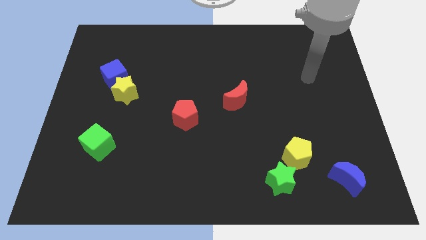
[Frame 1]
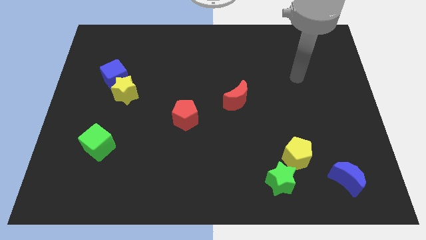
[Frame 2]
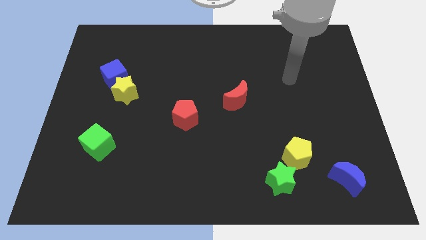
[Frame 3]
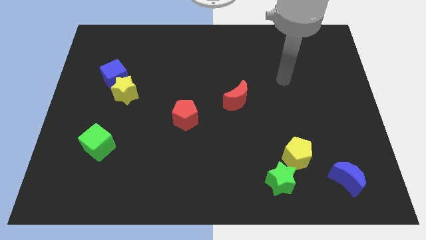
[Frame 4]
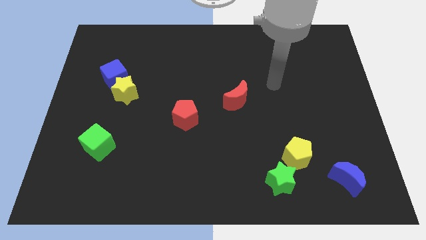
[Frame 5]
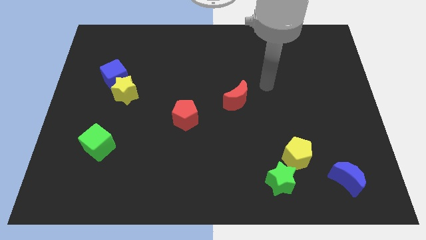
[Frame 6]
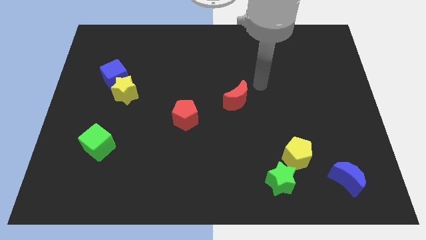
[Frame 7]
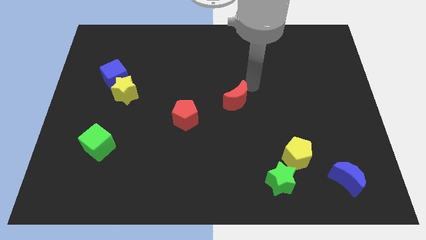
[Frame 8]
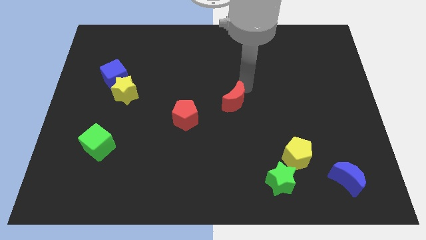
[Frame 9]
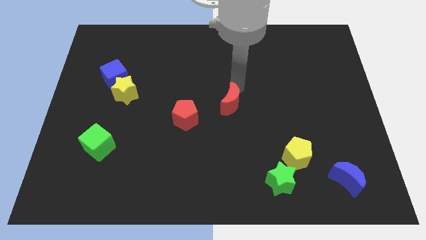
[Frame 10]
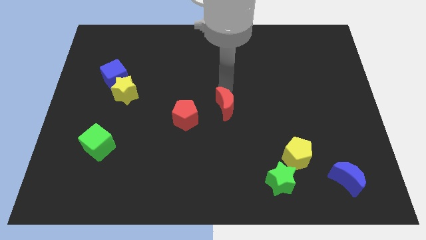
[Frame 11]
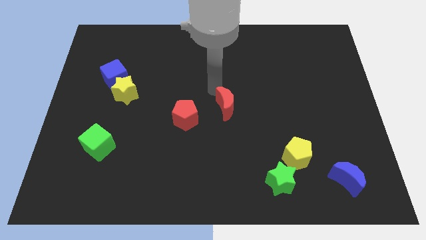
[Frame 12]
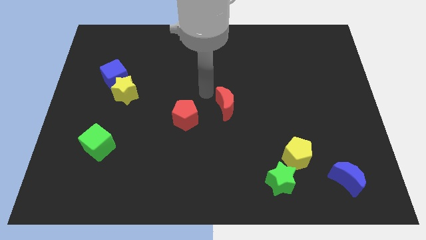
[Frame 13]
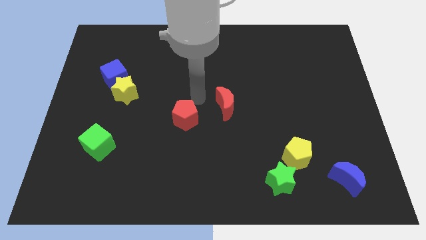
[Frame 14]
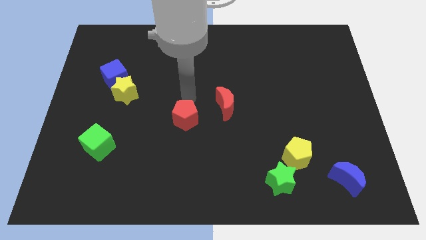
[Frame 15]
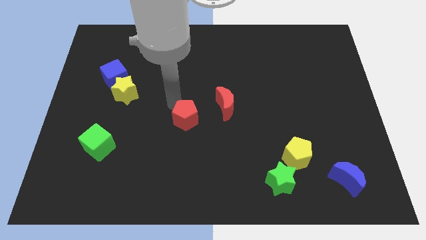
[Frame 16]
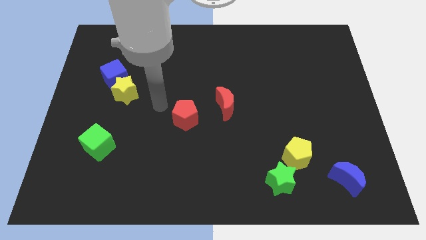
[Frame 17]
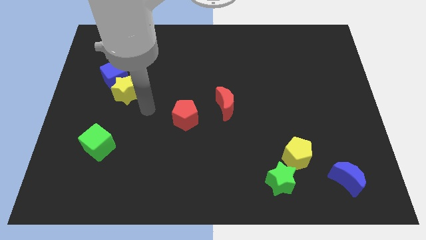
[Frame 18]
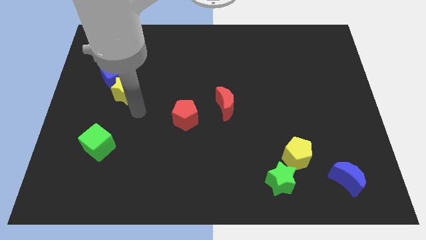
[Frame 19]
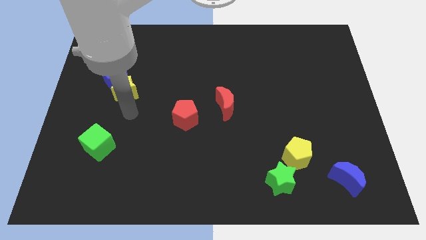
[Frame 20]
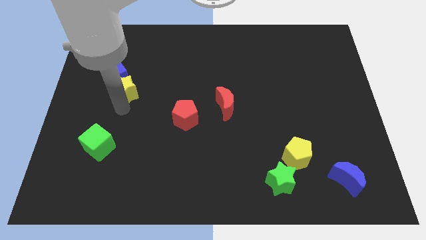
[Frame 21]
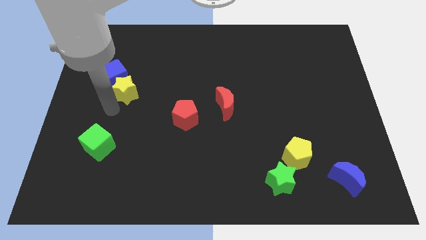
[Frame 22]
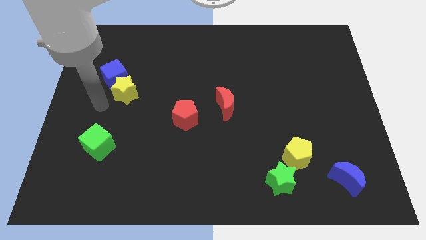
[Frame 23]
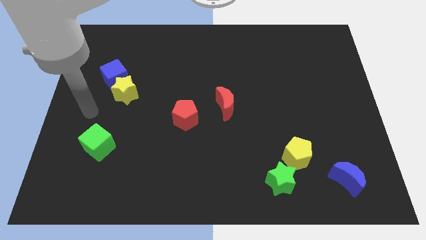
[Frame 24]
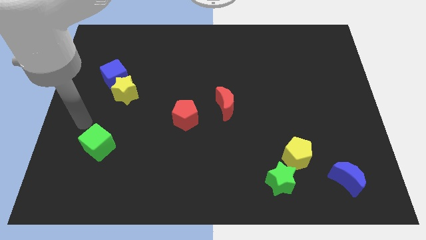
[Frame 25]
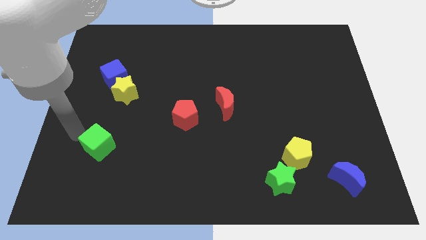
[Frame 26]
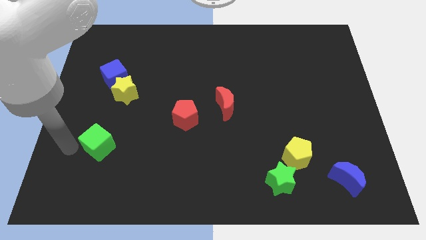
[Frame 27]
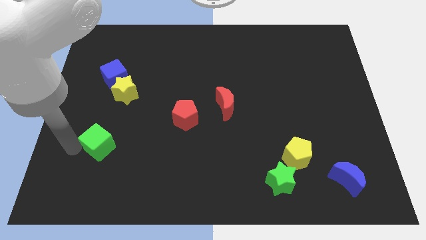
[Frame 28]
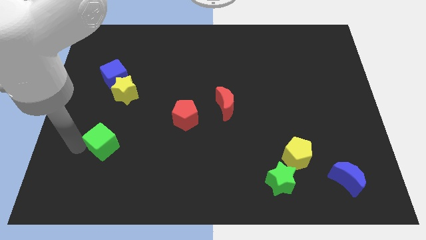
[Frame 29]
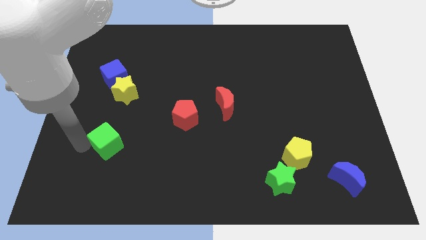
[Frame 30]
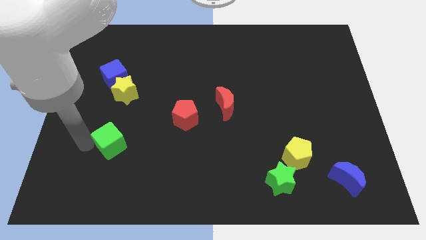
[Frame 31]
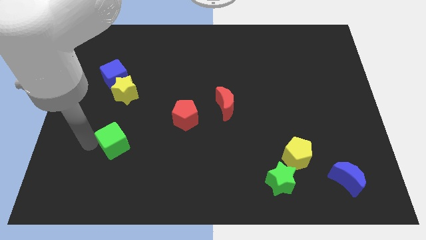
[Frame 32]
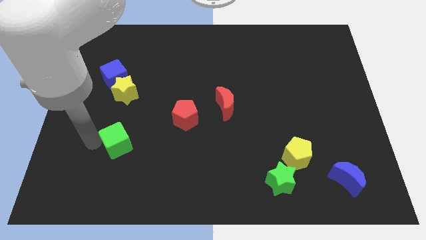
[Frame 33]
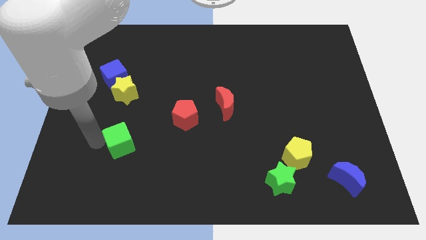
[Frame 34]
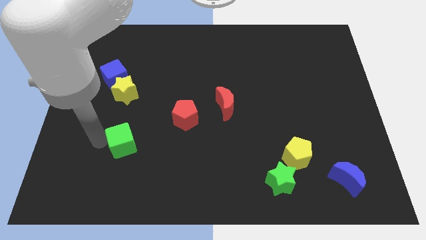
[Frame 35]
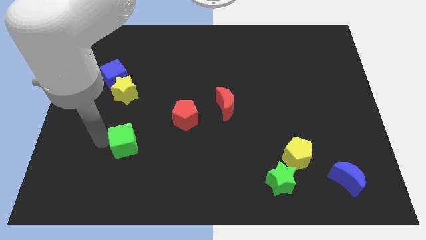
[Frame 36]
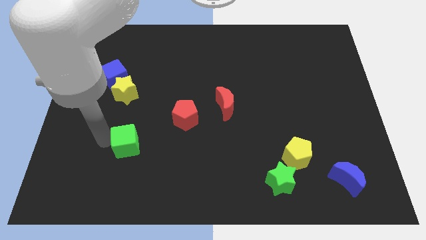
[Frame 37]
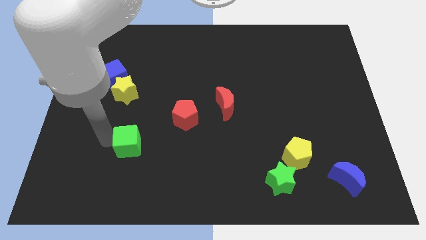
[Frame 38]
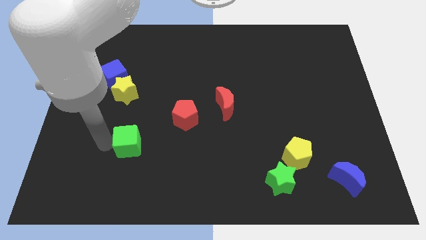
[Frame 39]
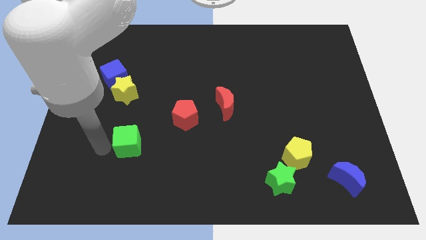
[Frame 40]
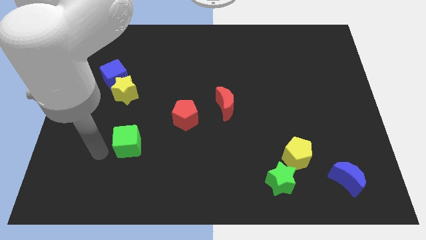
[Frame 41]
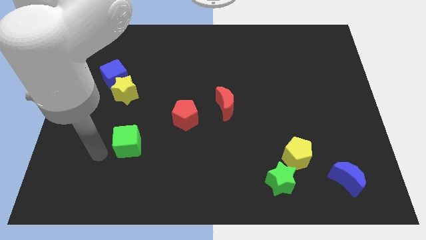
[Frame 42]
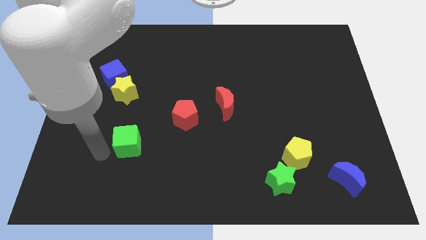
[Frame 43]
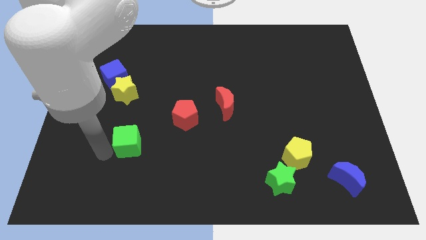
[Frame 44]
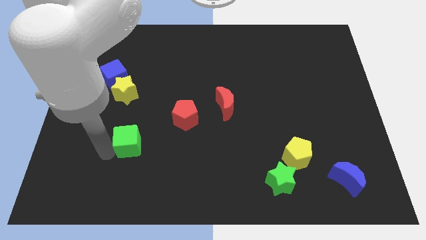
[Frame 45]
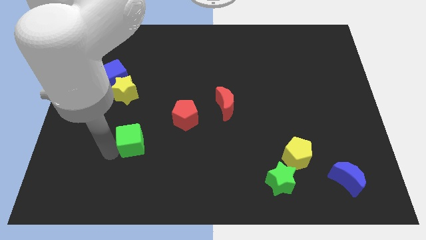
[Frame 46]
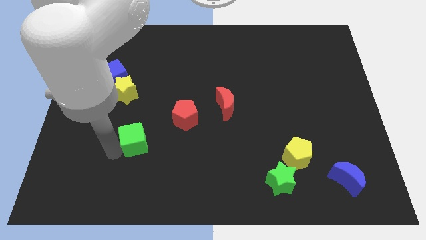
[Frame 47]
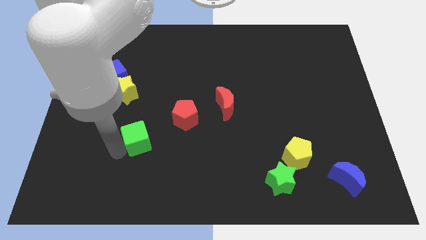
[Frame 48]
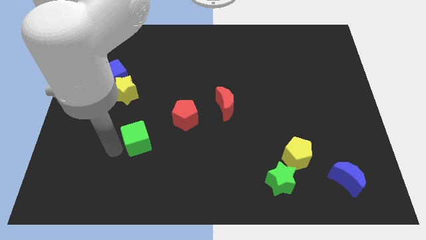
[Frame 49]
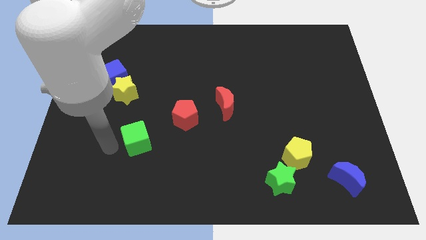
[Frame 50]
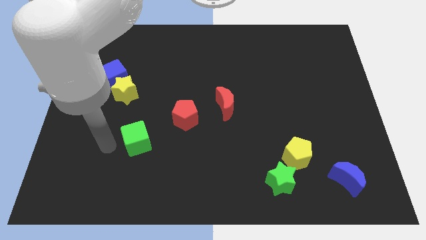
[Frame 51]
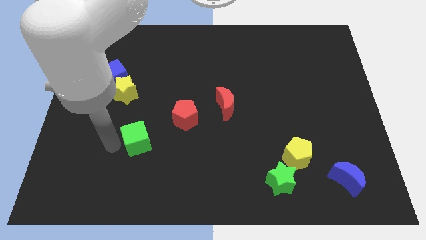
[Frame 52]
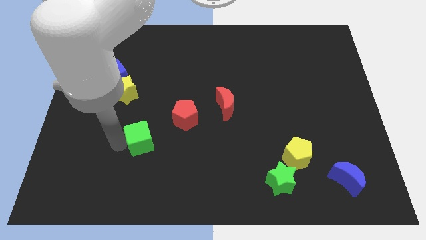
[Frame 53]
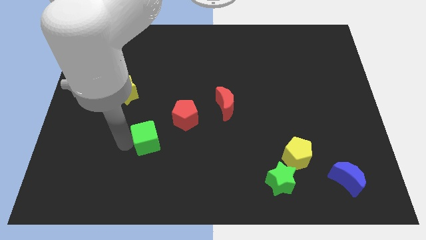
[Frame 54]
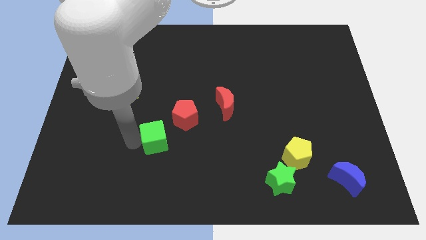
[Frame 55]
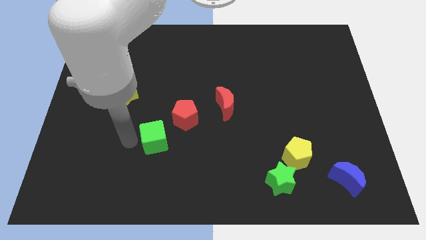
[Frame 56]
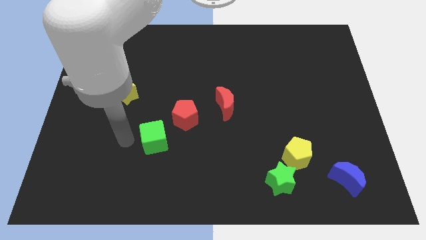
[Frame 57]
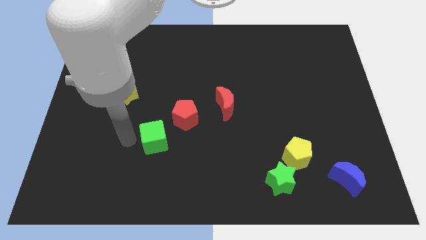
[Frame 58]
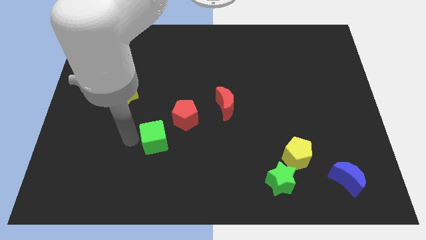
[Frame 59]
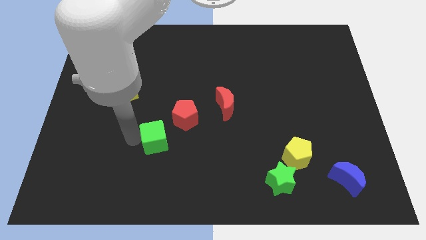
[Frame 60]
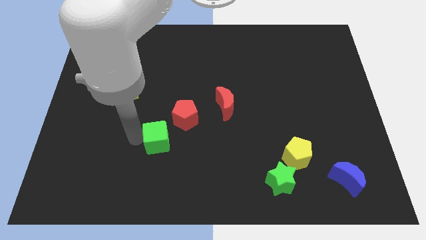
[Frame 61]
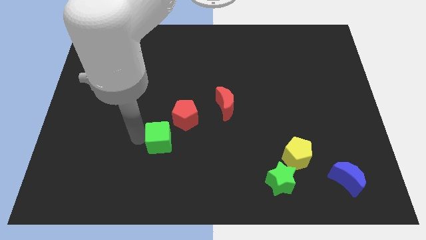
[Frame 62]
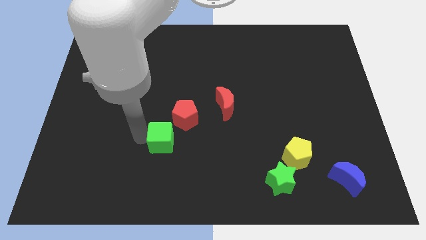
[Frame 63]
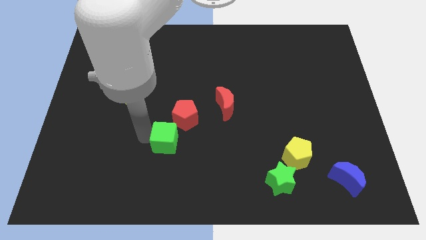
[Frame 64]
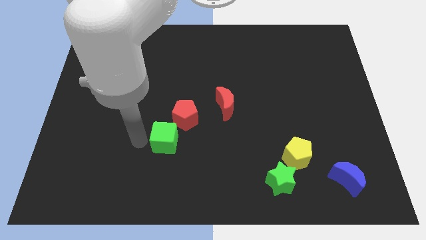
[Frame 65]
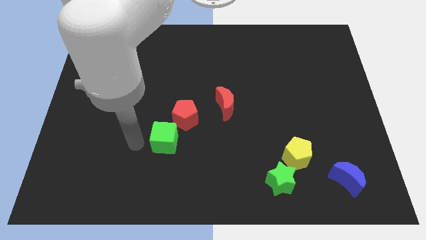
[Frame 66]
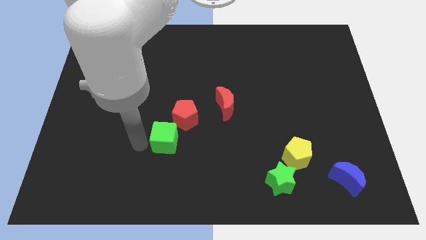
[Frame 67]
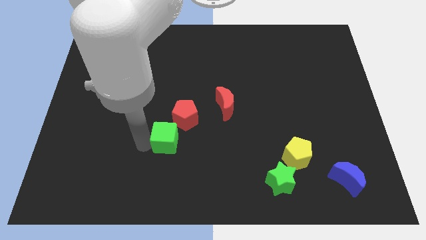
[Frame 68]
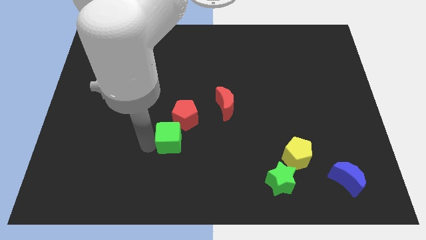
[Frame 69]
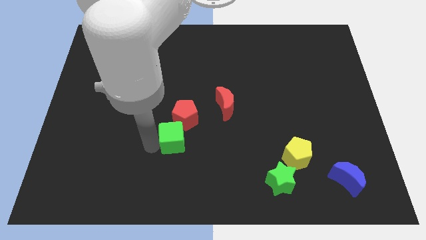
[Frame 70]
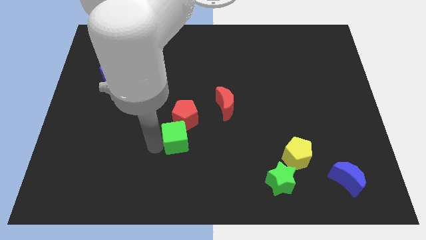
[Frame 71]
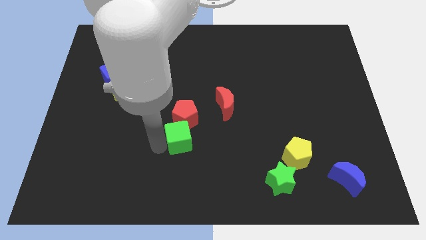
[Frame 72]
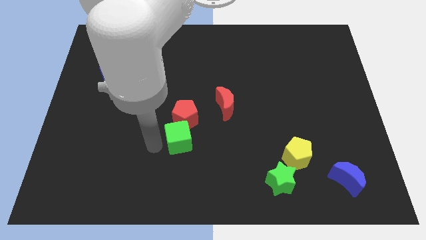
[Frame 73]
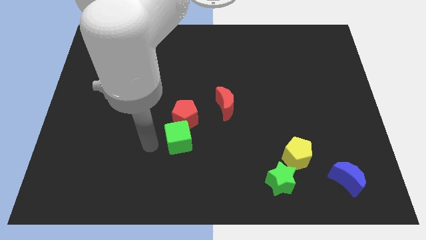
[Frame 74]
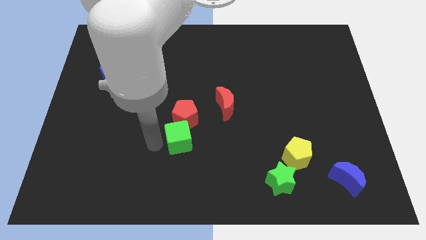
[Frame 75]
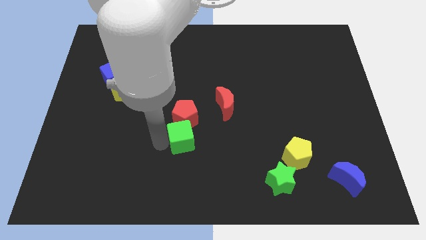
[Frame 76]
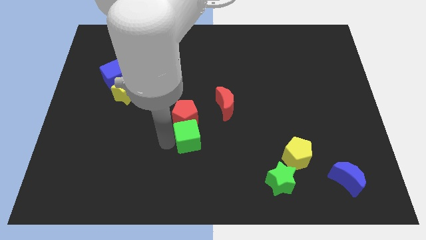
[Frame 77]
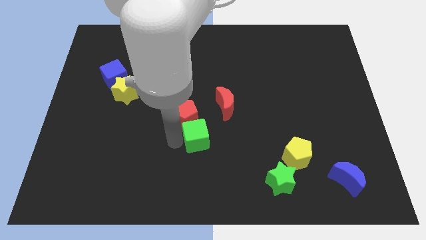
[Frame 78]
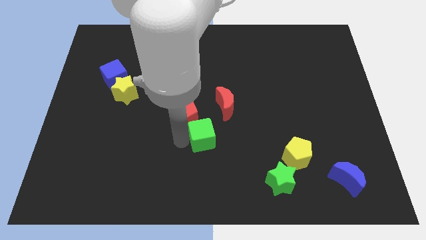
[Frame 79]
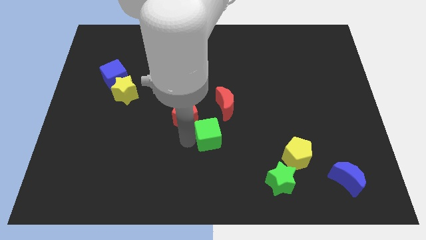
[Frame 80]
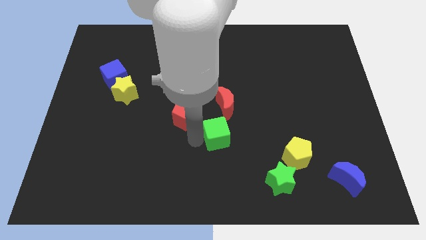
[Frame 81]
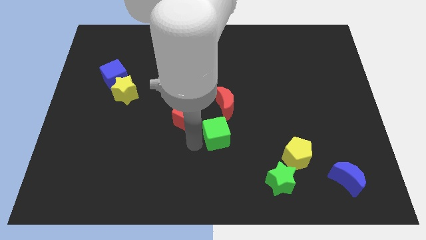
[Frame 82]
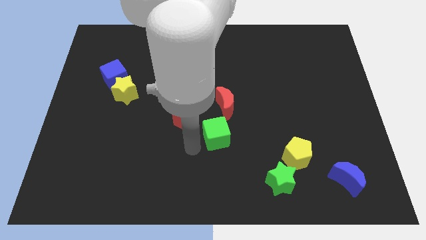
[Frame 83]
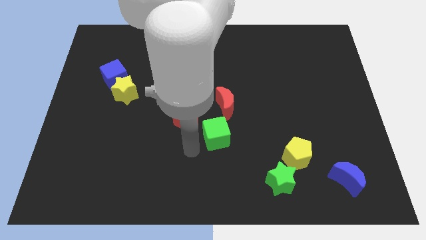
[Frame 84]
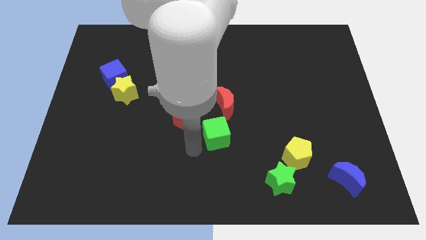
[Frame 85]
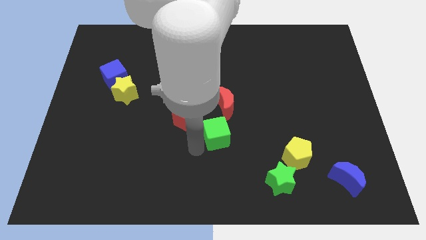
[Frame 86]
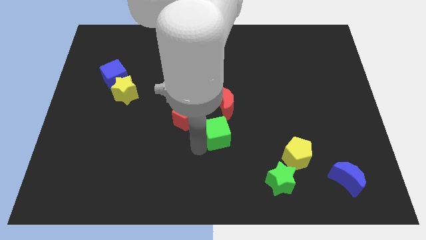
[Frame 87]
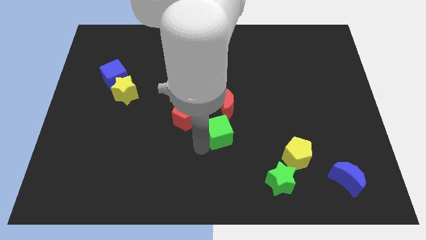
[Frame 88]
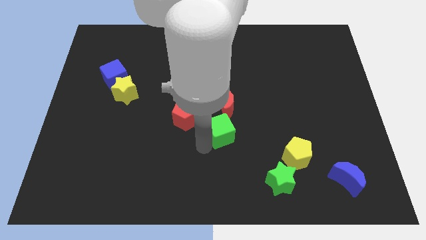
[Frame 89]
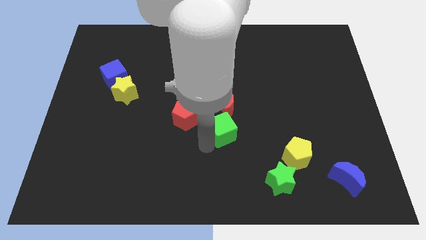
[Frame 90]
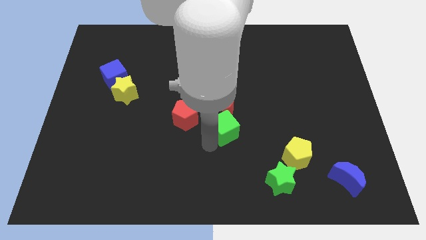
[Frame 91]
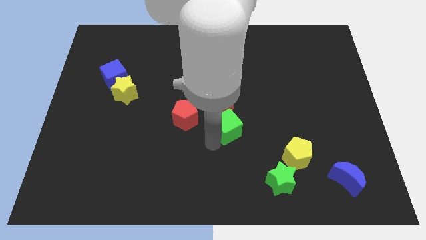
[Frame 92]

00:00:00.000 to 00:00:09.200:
move the green cube to the bottom right of the red moon
